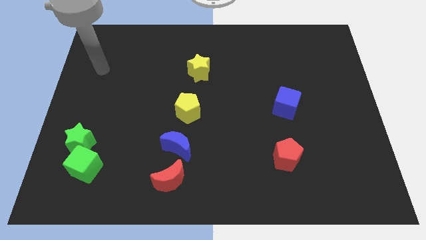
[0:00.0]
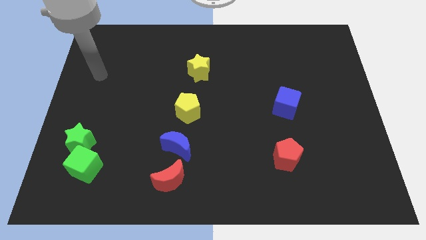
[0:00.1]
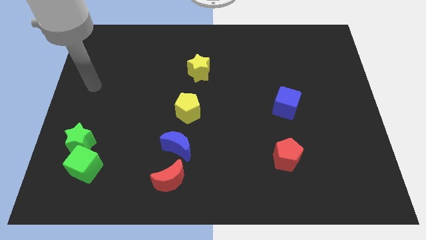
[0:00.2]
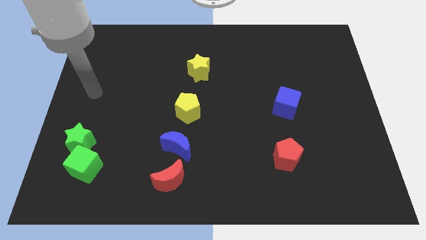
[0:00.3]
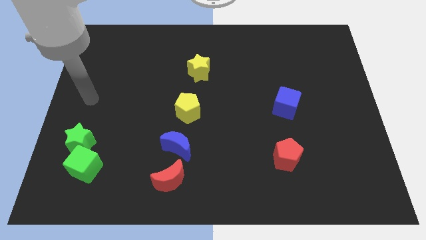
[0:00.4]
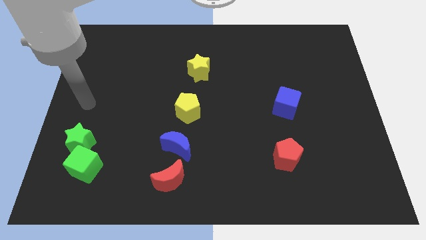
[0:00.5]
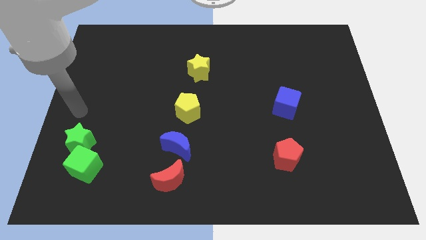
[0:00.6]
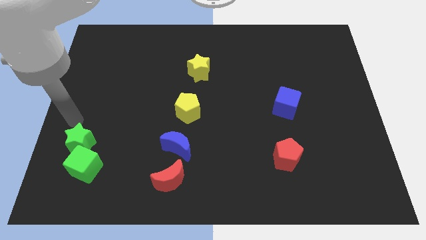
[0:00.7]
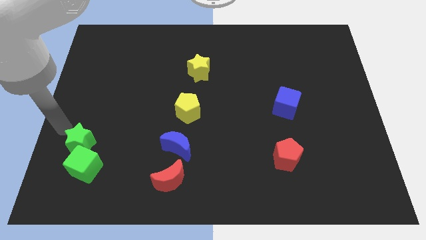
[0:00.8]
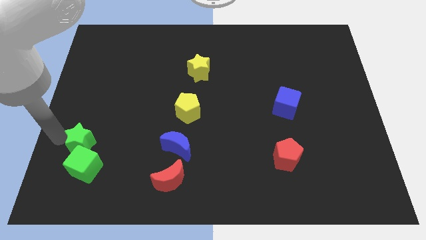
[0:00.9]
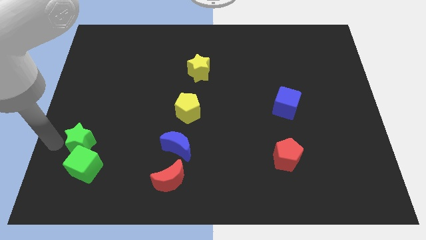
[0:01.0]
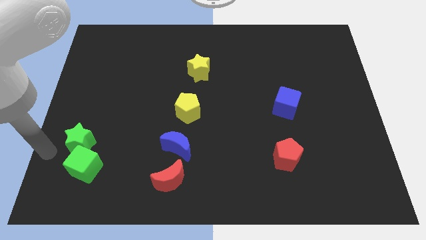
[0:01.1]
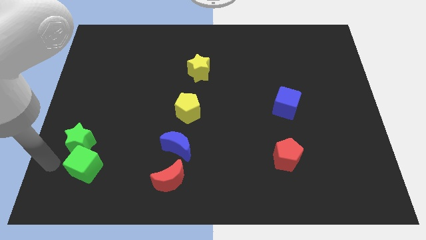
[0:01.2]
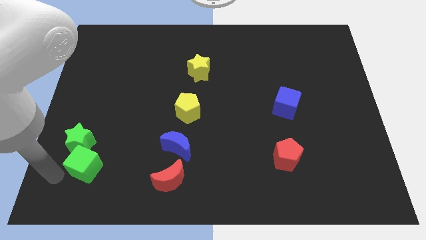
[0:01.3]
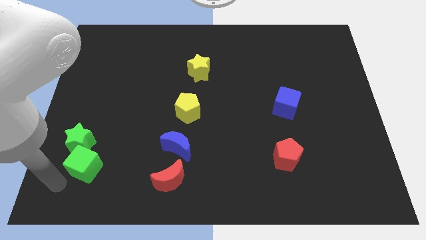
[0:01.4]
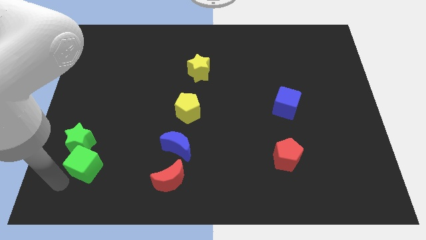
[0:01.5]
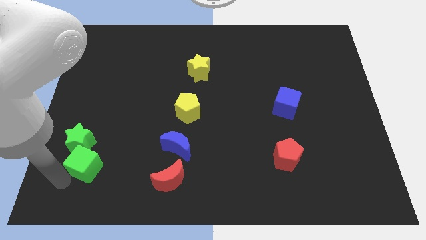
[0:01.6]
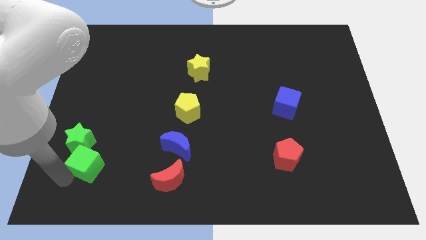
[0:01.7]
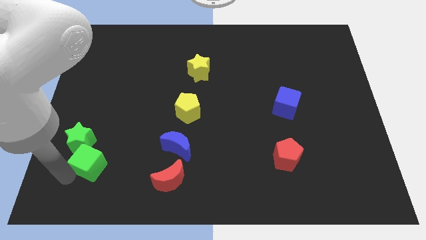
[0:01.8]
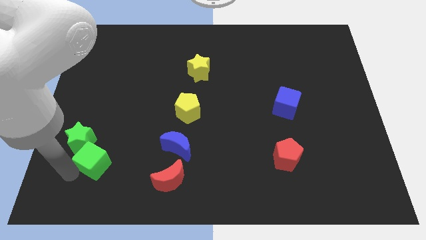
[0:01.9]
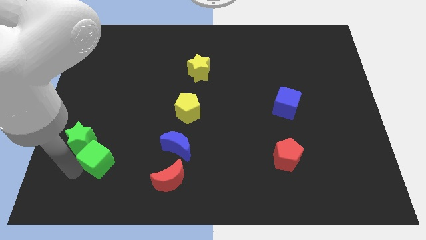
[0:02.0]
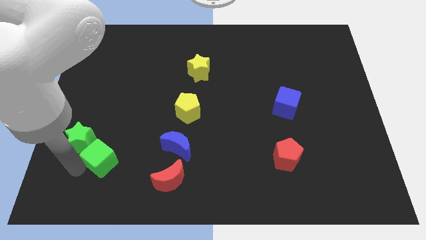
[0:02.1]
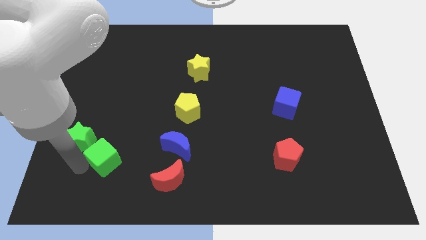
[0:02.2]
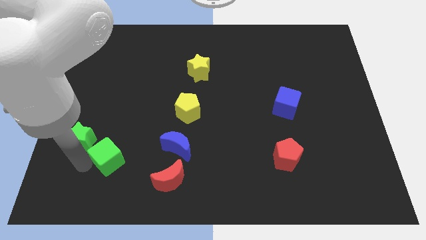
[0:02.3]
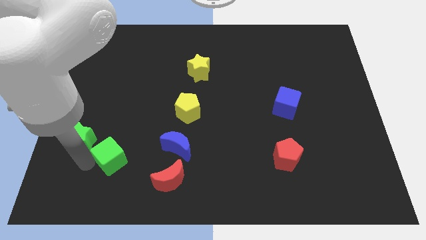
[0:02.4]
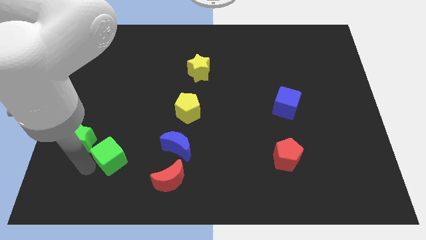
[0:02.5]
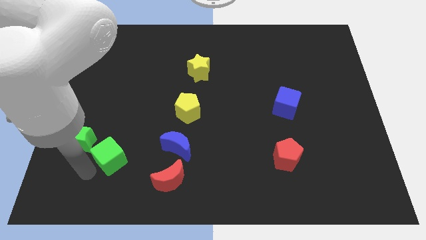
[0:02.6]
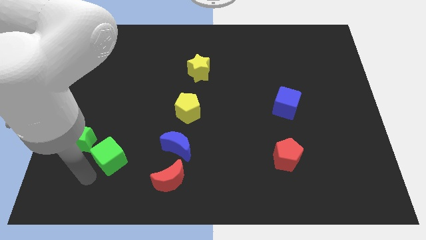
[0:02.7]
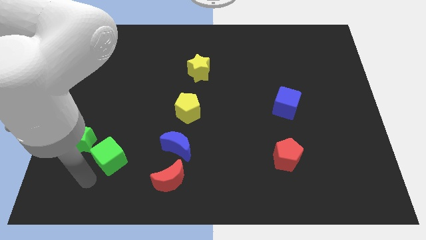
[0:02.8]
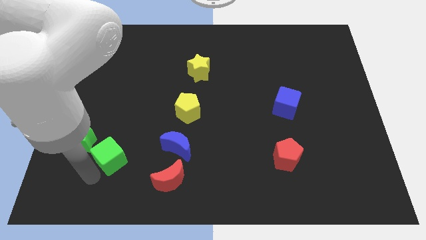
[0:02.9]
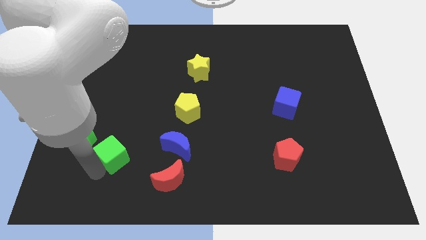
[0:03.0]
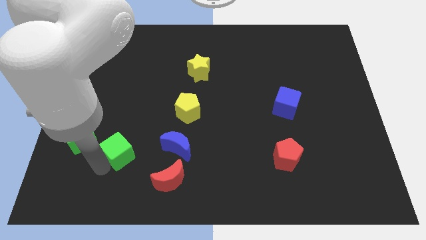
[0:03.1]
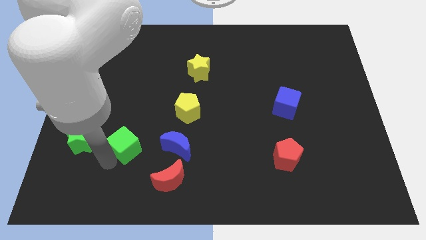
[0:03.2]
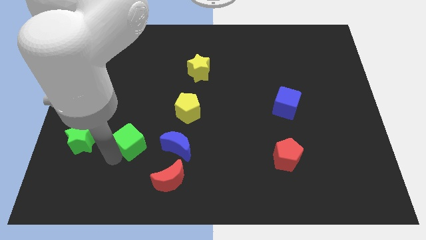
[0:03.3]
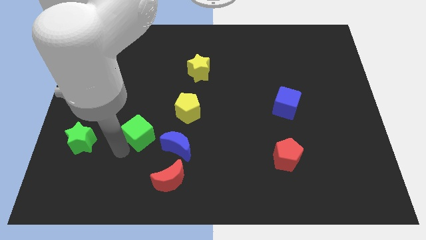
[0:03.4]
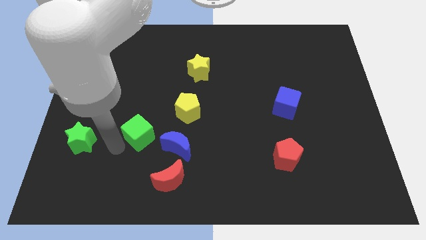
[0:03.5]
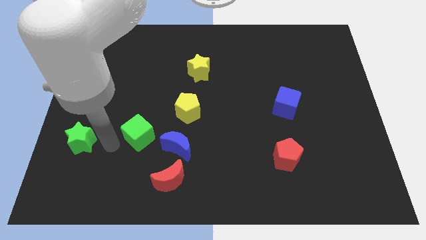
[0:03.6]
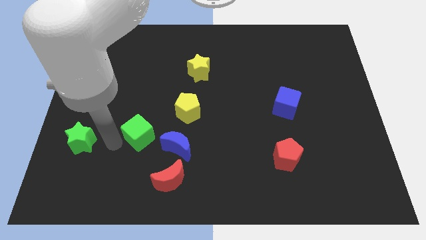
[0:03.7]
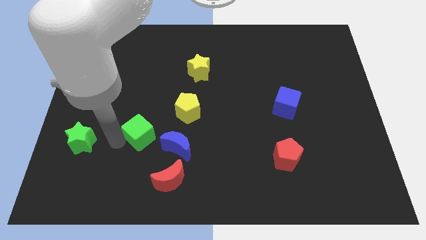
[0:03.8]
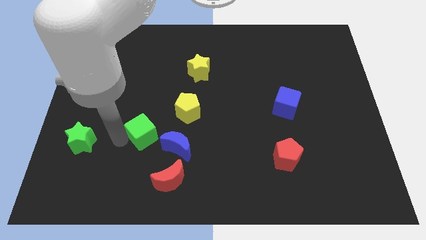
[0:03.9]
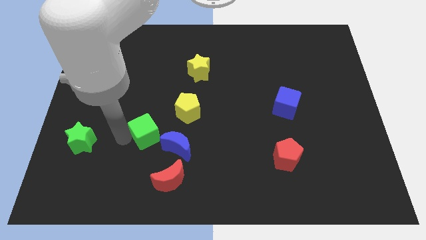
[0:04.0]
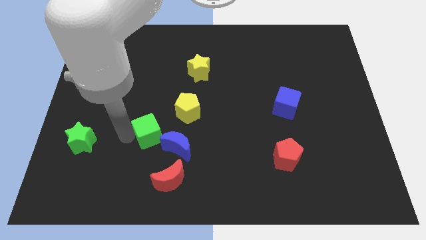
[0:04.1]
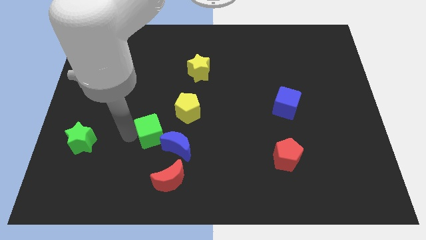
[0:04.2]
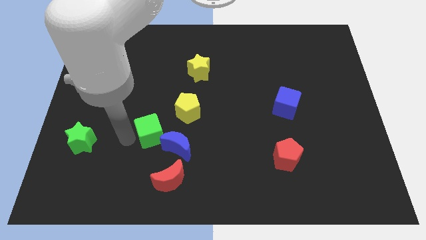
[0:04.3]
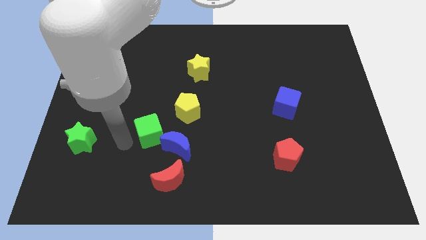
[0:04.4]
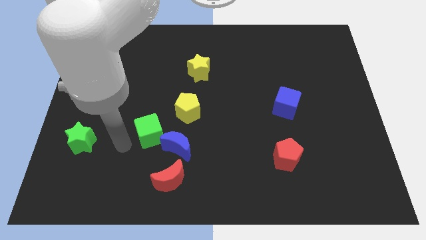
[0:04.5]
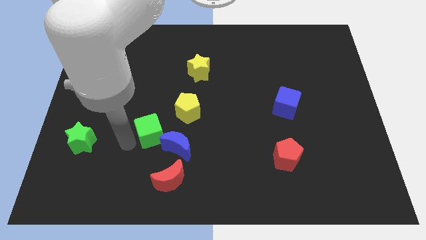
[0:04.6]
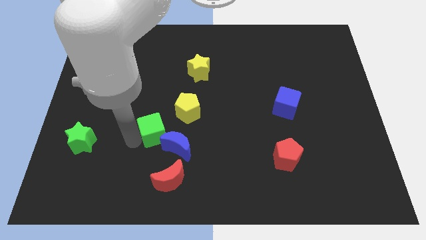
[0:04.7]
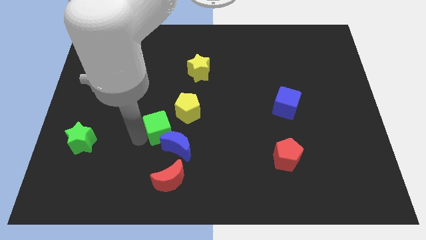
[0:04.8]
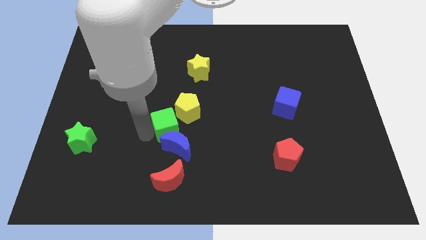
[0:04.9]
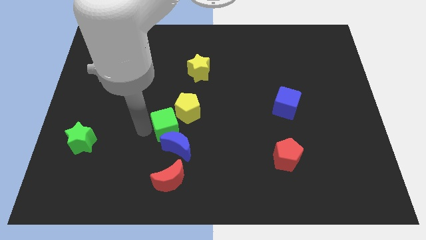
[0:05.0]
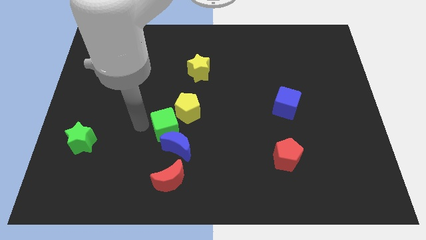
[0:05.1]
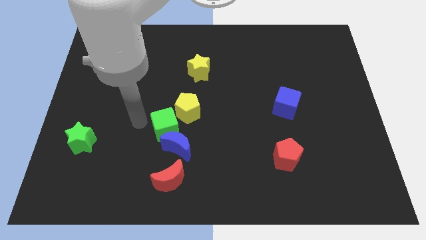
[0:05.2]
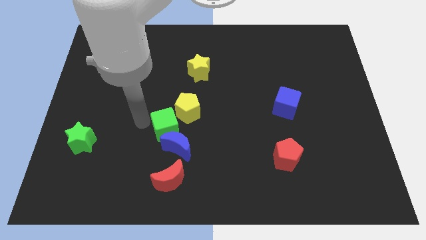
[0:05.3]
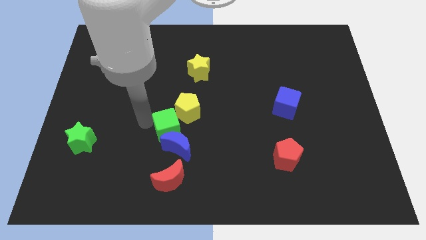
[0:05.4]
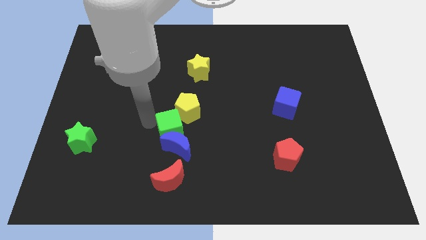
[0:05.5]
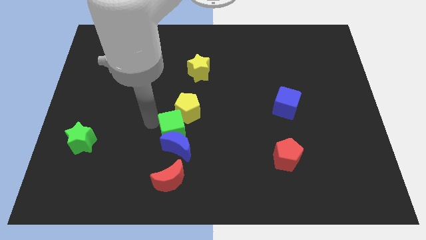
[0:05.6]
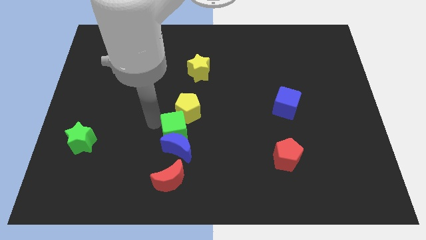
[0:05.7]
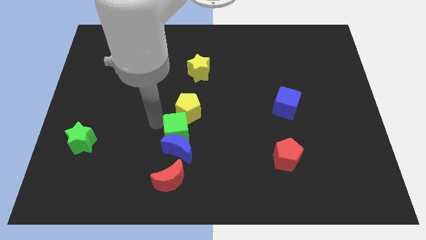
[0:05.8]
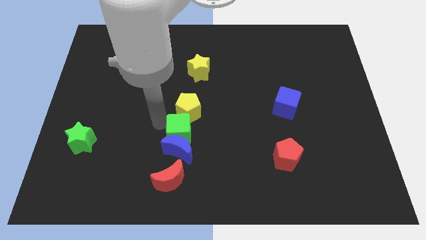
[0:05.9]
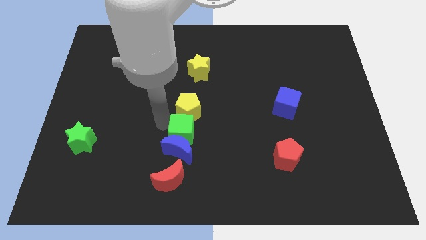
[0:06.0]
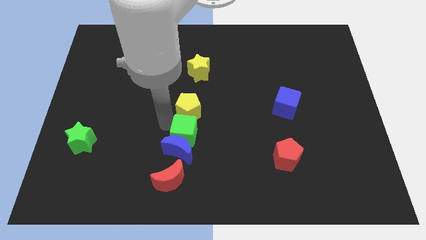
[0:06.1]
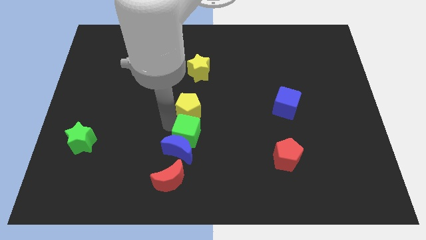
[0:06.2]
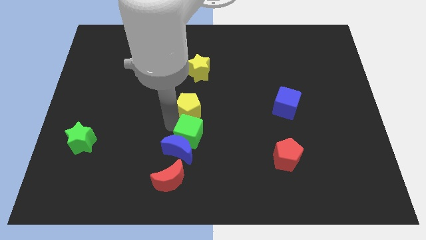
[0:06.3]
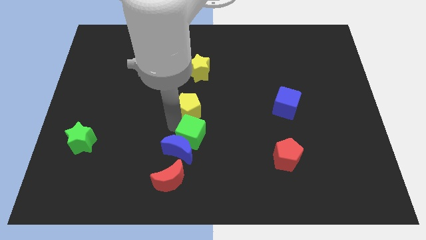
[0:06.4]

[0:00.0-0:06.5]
move the green cube to the right of the blue moon

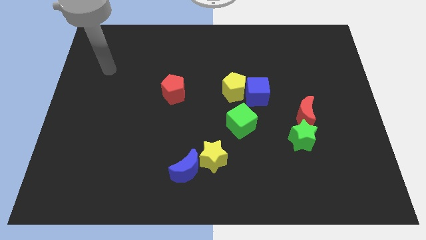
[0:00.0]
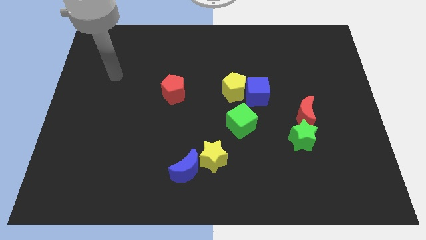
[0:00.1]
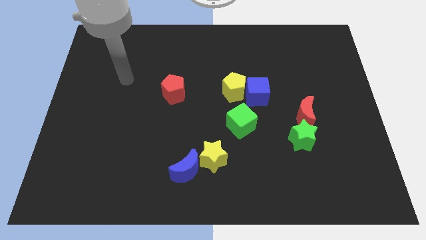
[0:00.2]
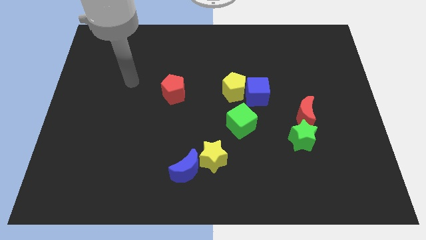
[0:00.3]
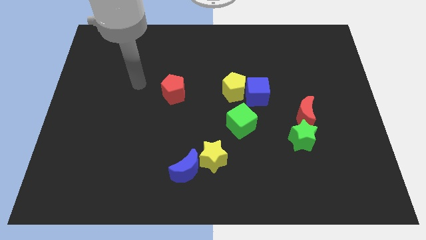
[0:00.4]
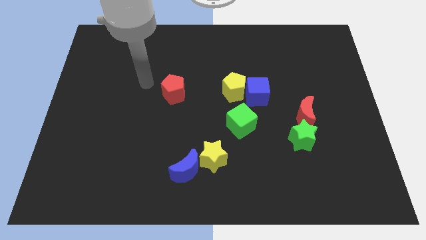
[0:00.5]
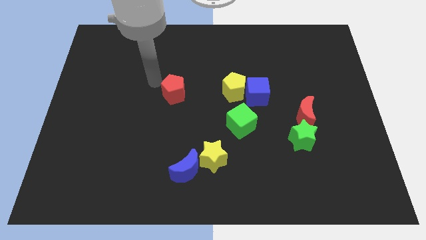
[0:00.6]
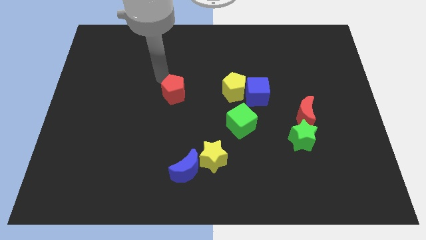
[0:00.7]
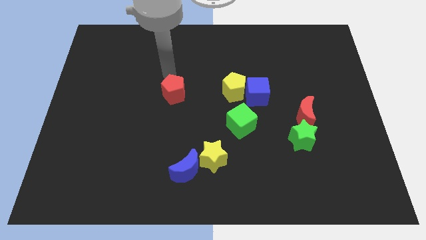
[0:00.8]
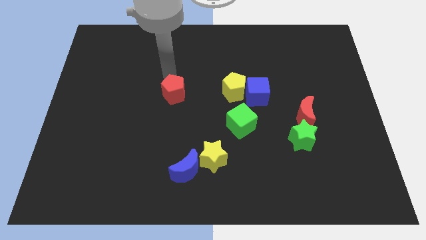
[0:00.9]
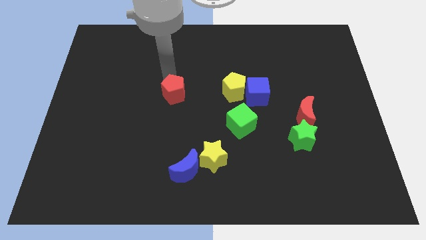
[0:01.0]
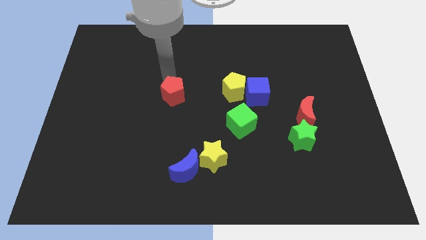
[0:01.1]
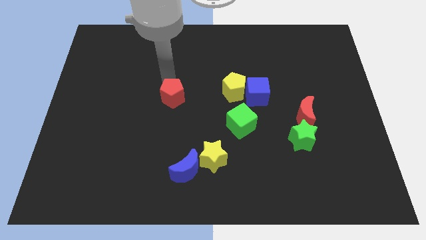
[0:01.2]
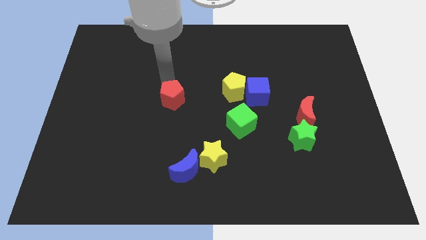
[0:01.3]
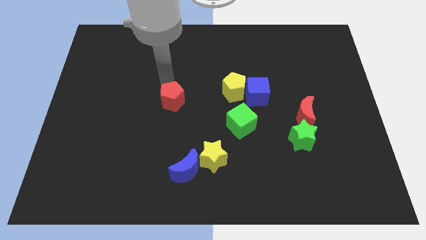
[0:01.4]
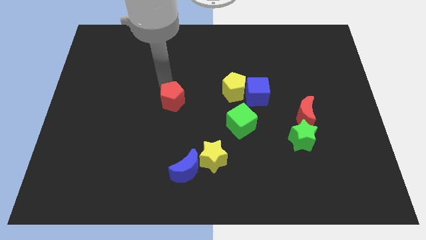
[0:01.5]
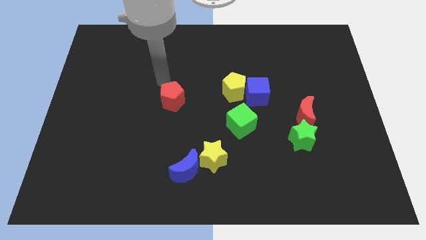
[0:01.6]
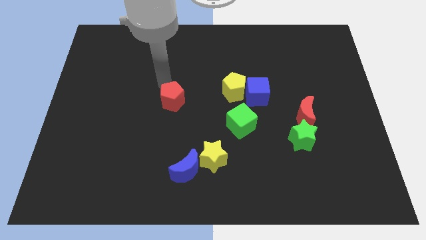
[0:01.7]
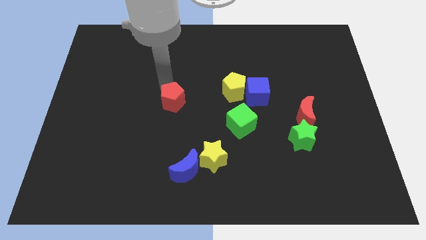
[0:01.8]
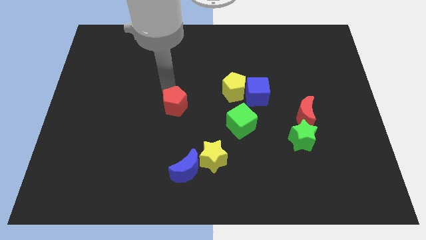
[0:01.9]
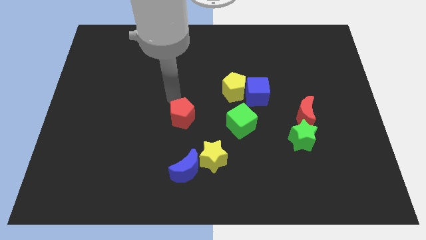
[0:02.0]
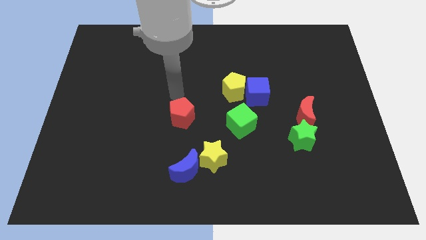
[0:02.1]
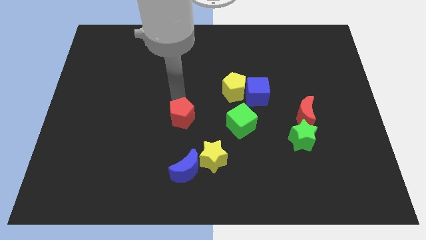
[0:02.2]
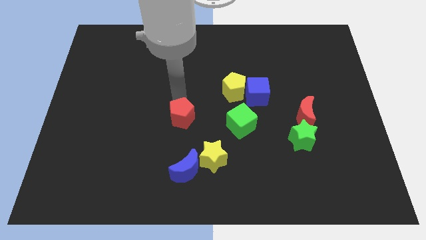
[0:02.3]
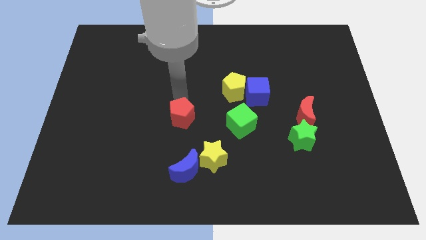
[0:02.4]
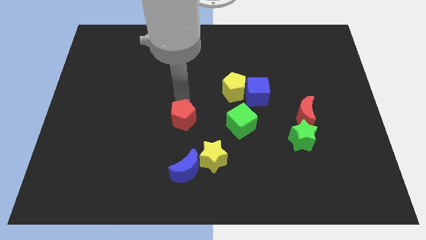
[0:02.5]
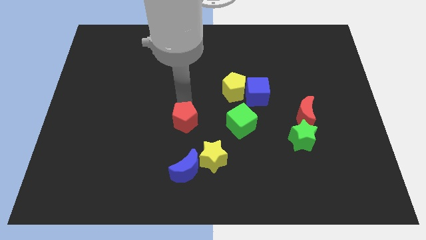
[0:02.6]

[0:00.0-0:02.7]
slide the red pentagon to the top left side of the yellow star
